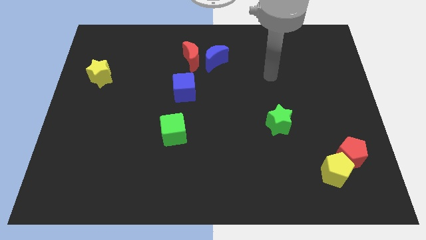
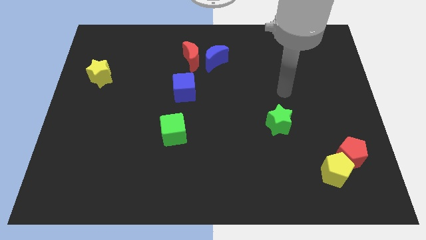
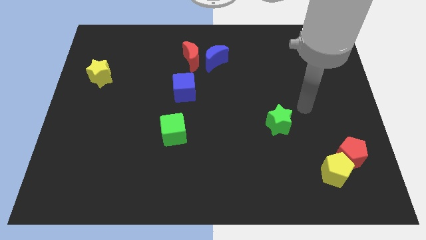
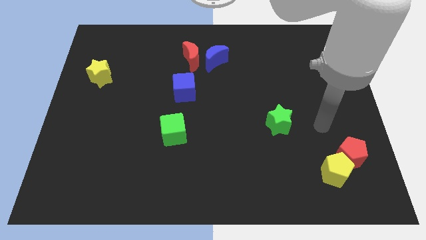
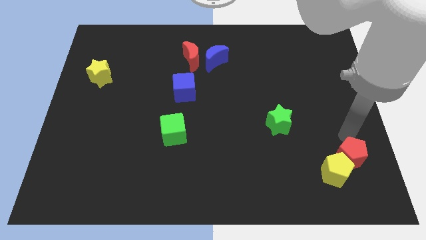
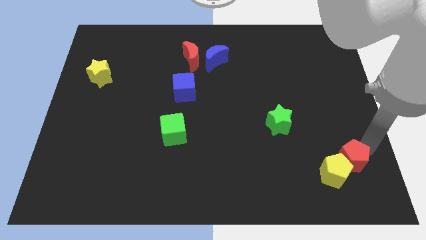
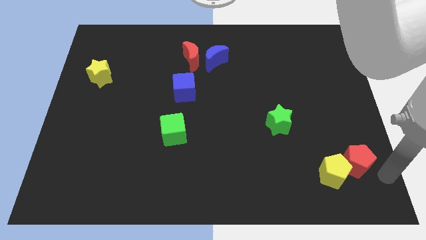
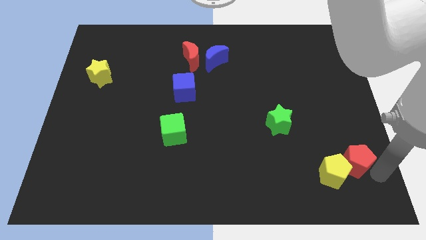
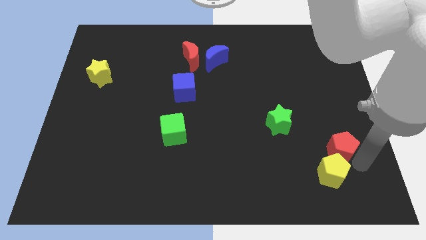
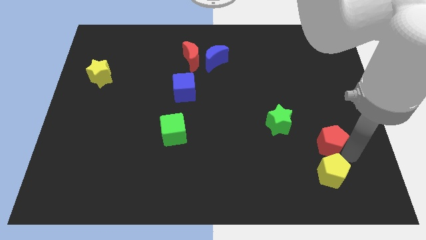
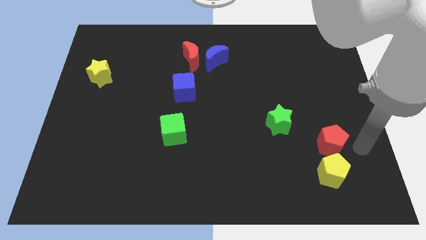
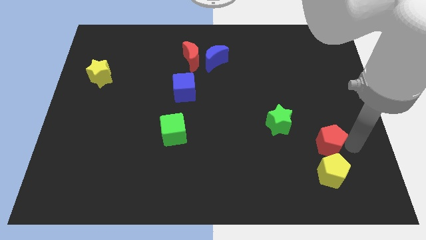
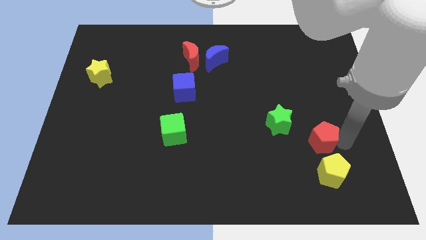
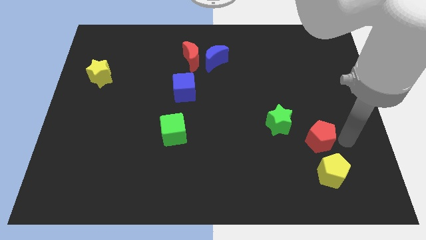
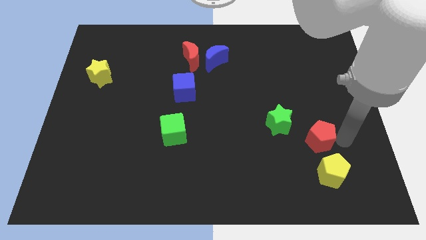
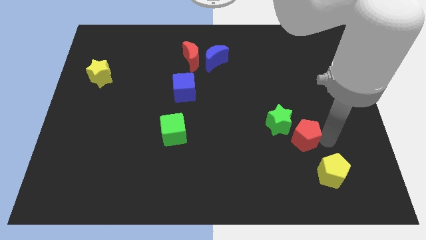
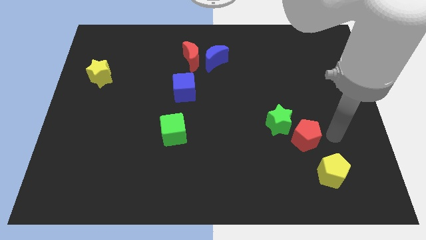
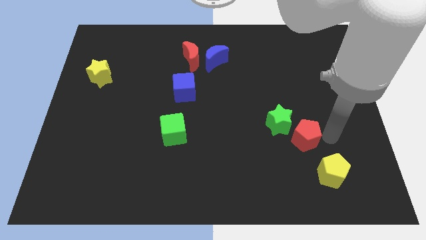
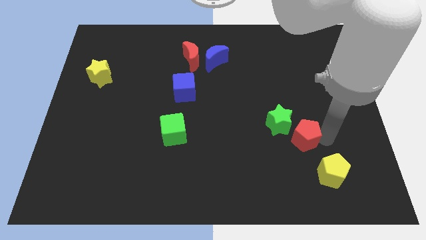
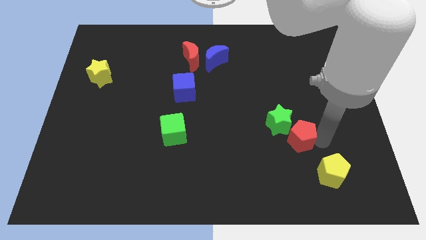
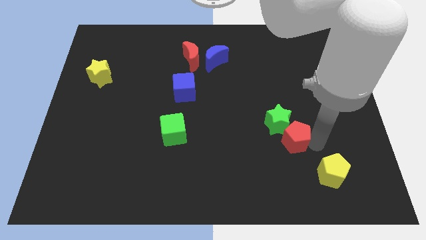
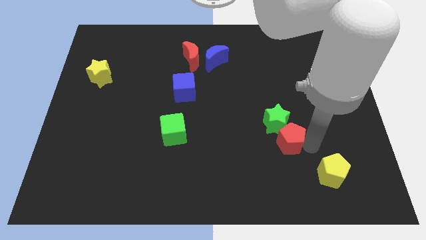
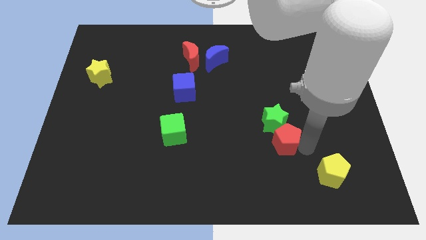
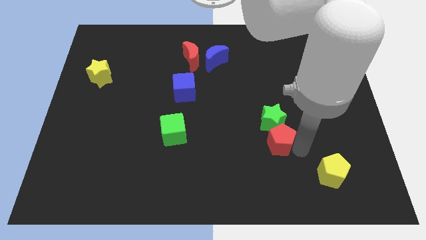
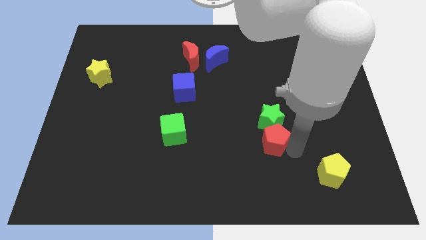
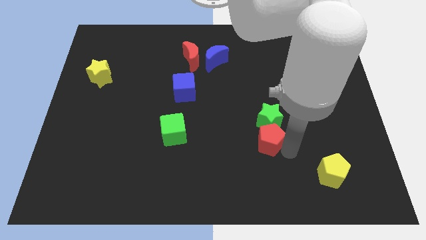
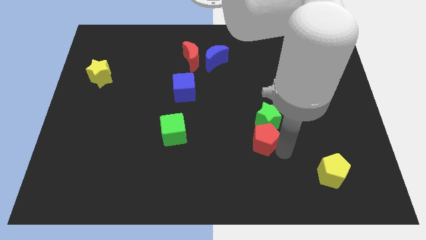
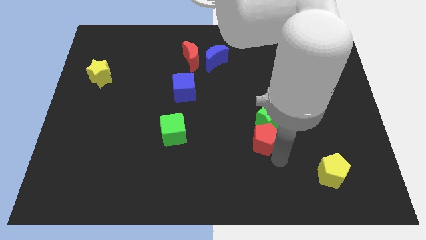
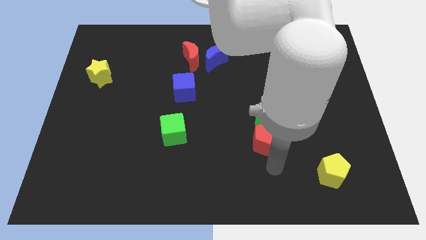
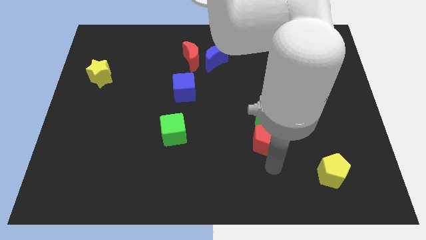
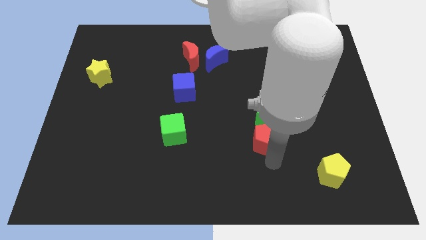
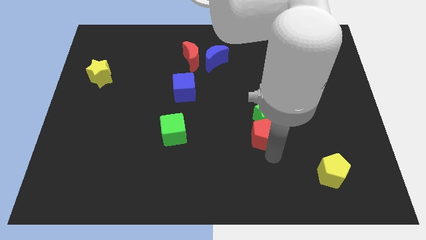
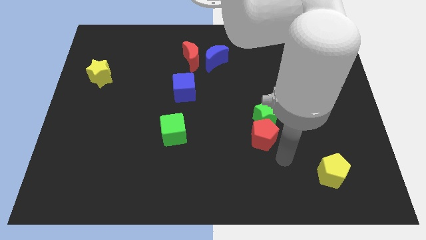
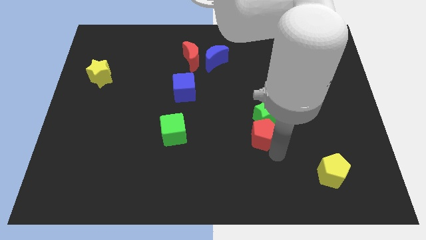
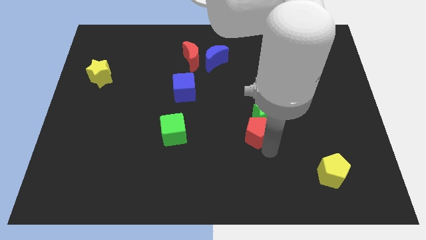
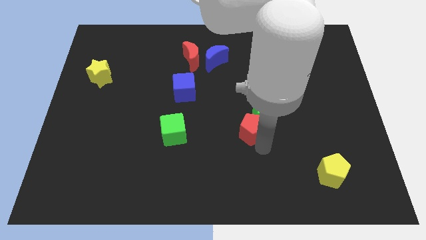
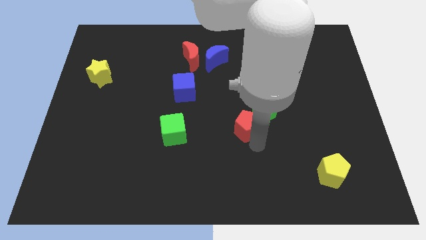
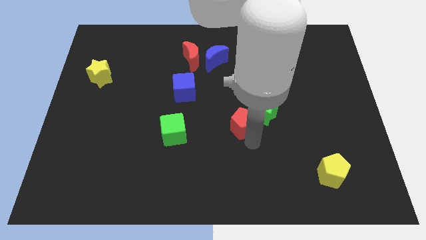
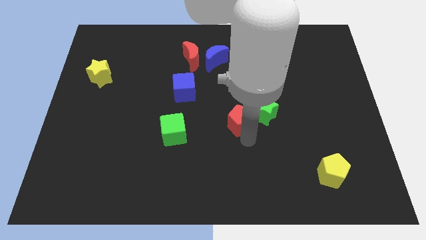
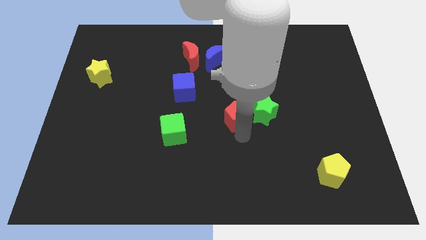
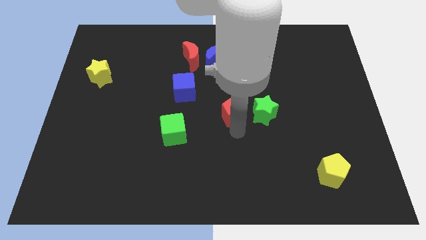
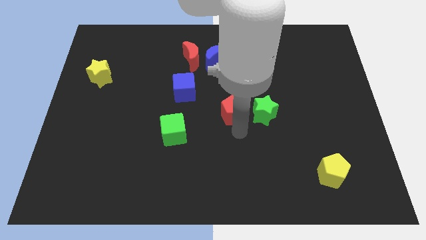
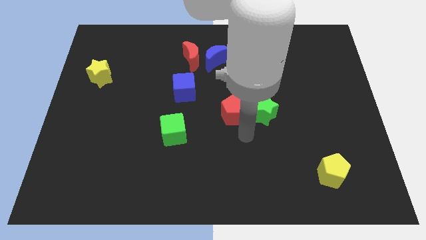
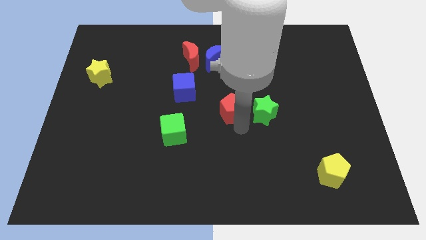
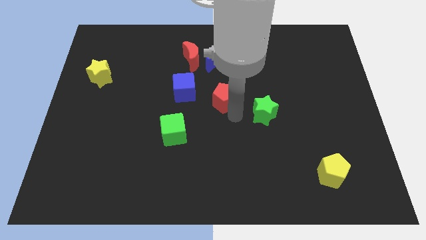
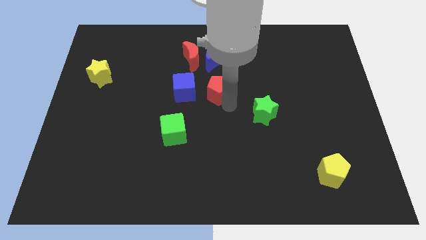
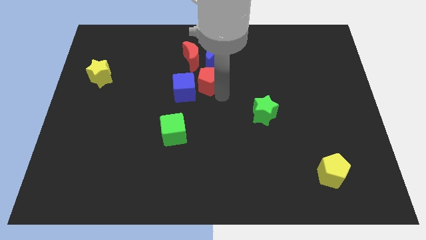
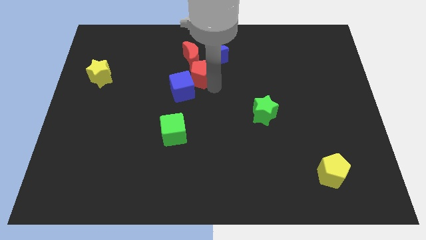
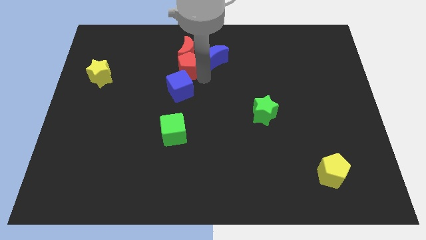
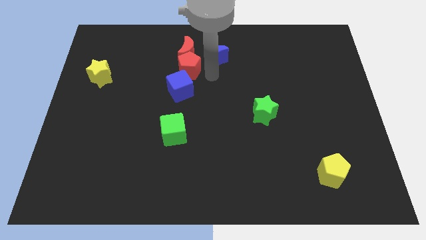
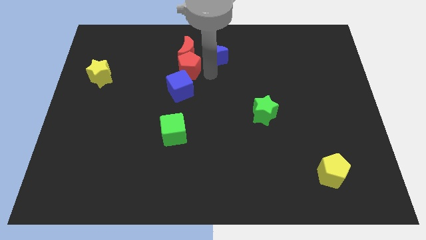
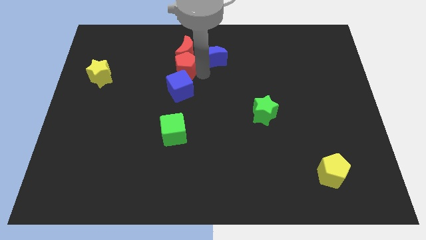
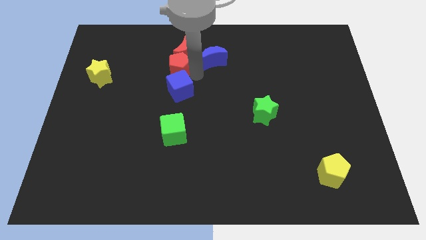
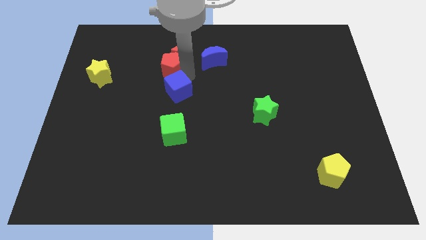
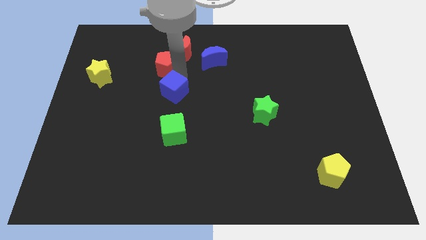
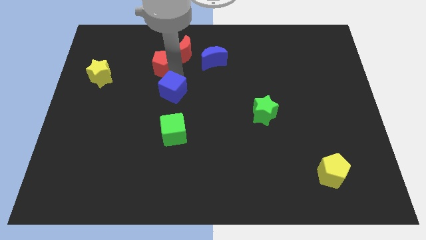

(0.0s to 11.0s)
push the red pentagon to the left of the red moon

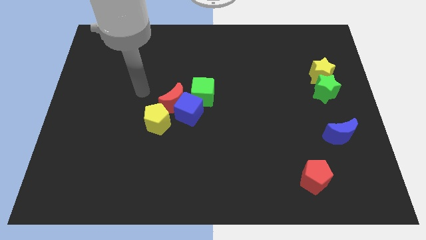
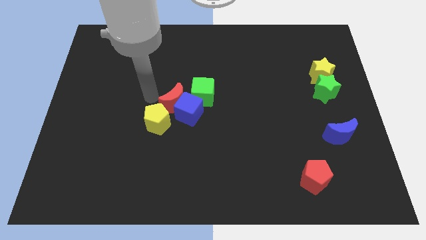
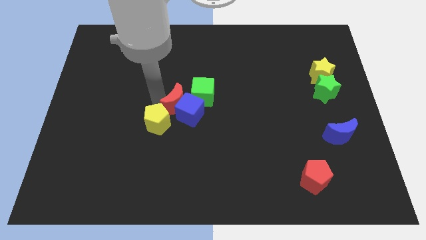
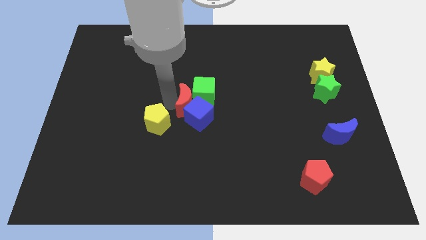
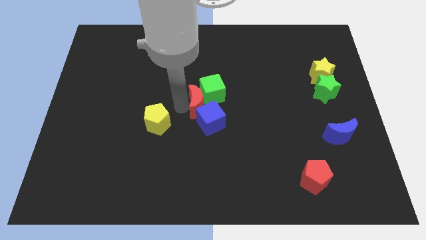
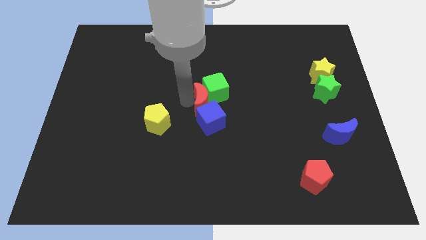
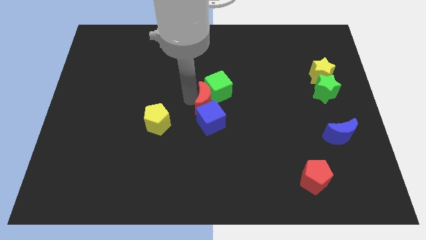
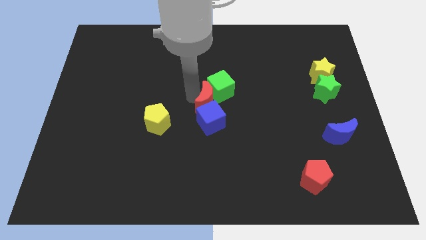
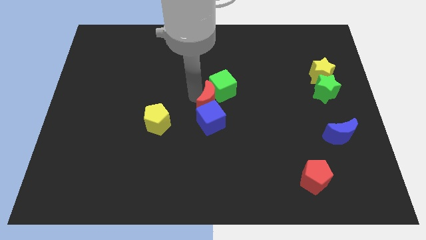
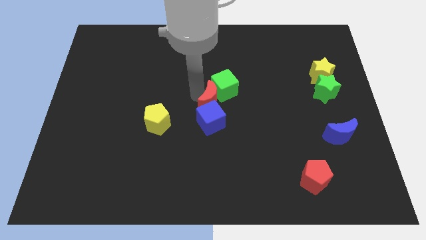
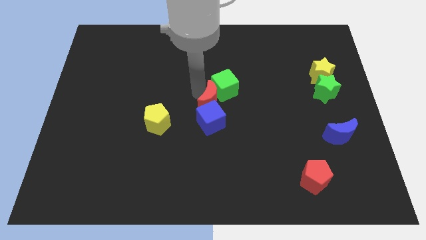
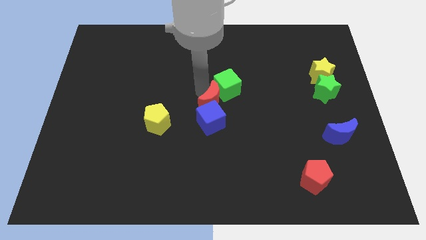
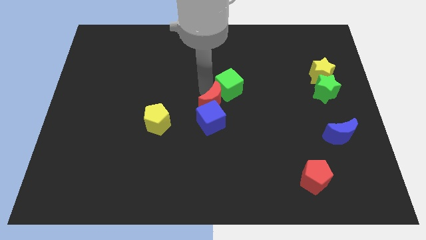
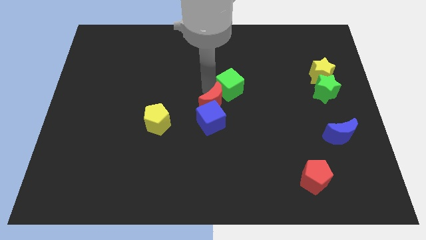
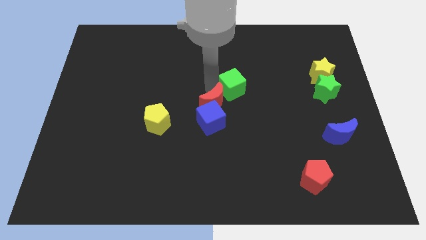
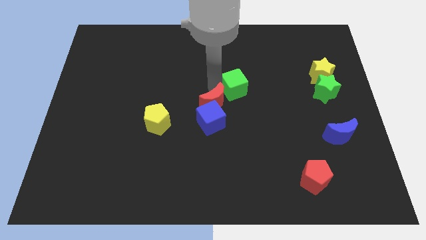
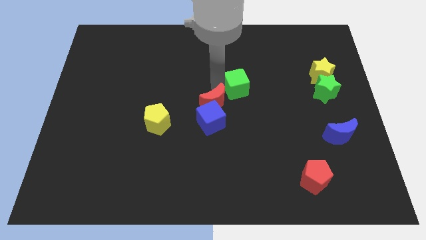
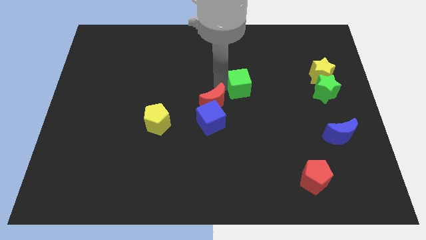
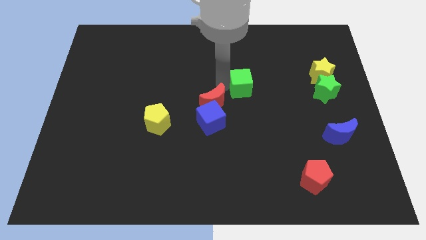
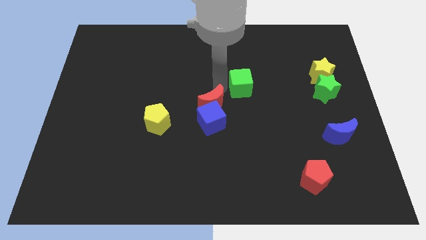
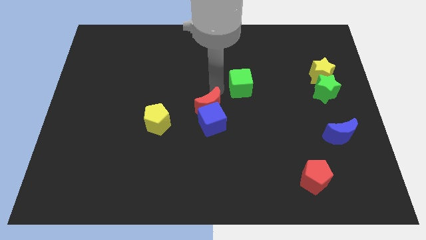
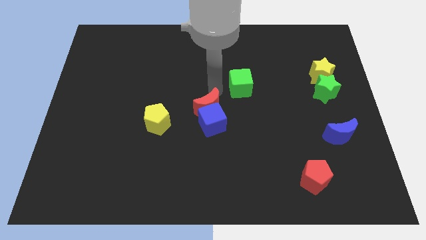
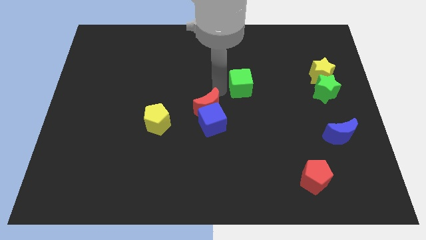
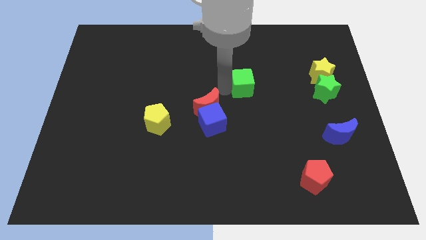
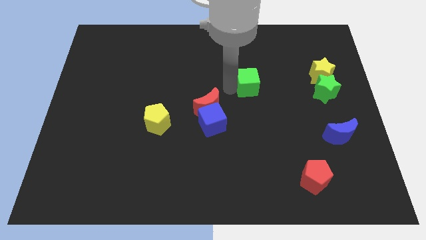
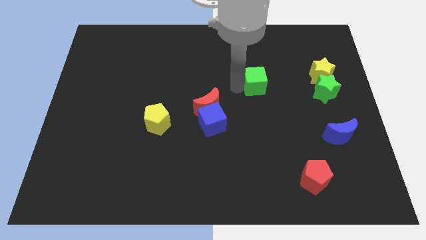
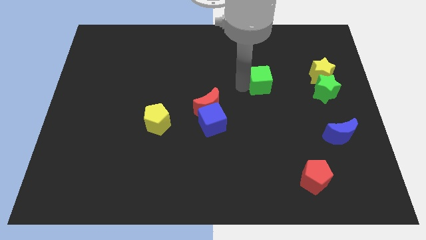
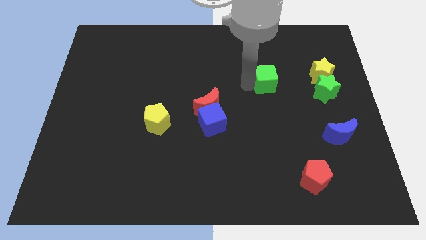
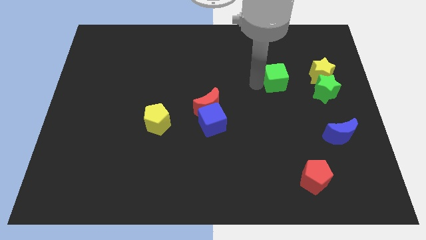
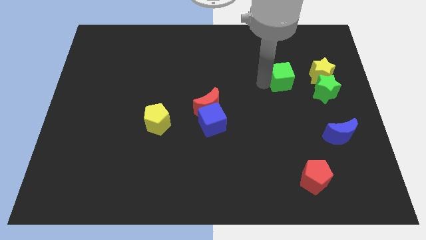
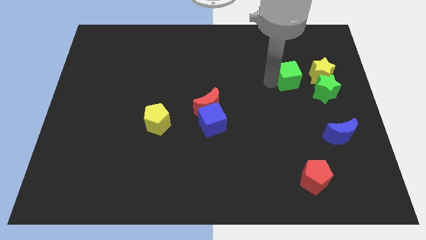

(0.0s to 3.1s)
push the green cube diagonally up and to the left of the green star
